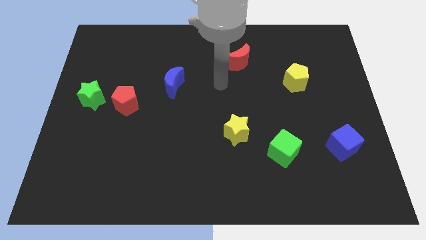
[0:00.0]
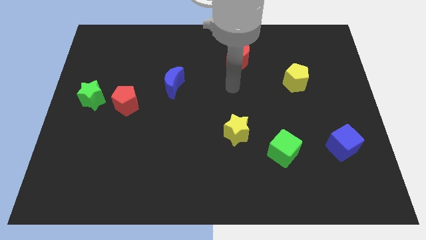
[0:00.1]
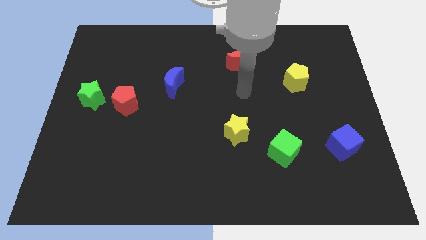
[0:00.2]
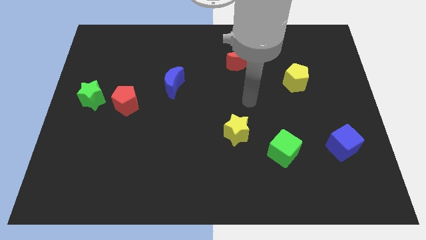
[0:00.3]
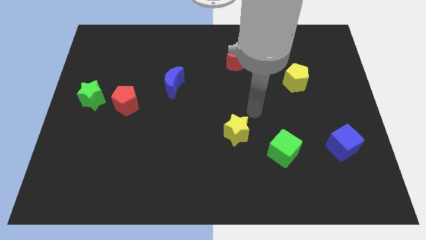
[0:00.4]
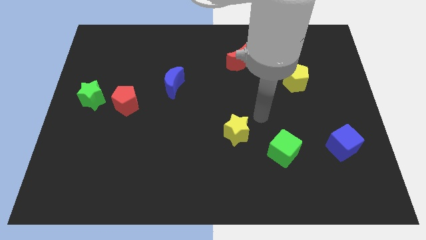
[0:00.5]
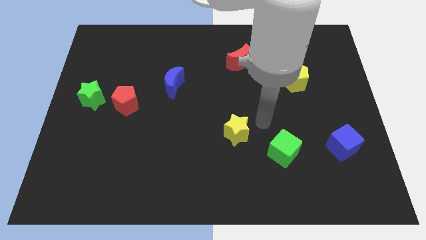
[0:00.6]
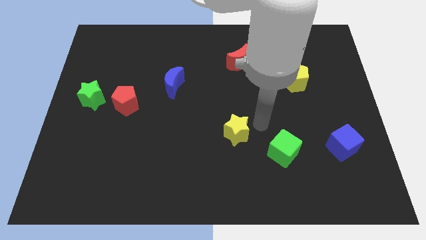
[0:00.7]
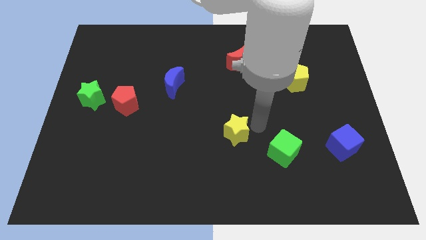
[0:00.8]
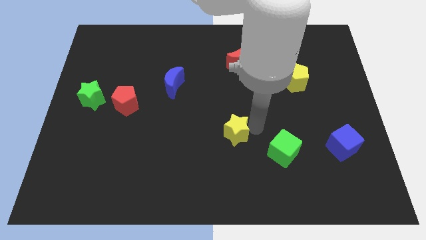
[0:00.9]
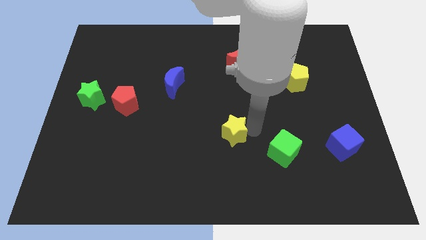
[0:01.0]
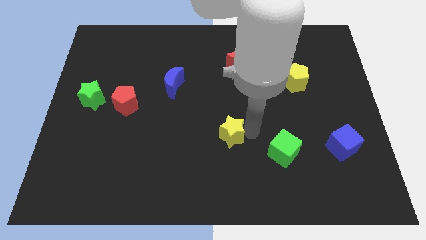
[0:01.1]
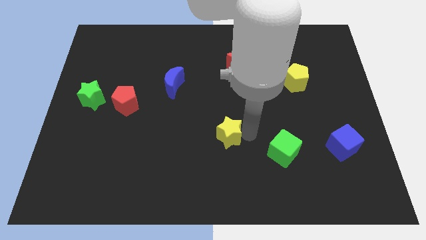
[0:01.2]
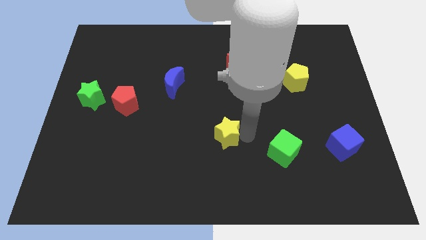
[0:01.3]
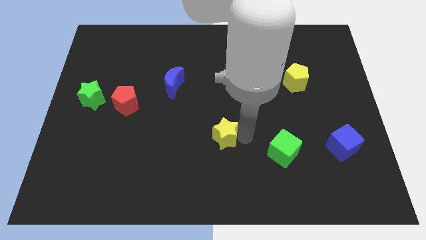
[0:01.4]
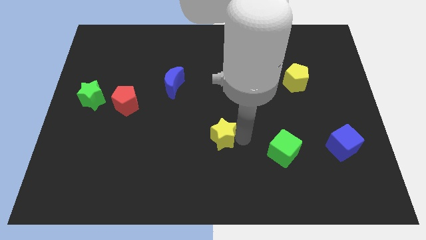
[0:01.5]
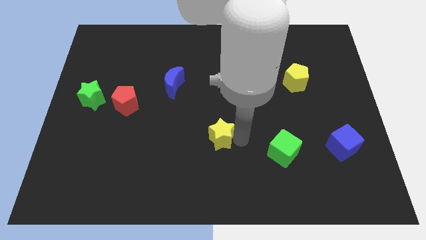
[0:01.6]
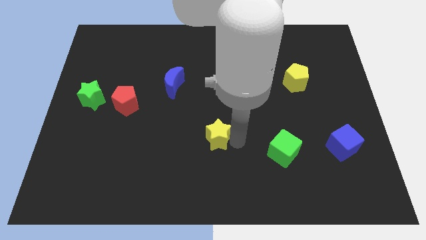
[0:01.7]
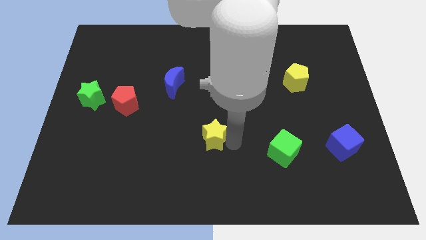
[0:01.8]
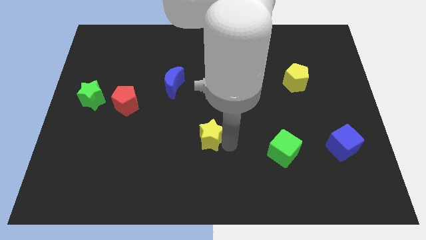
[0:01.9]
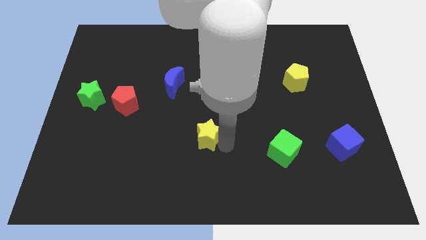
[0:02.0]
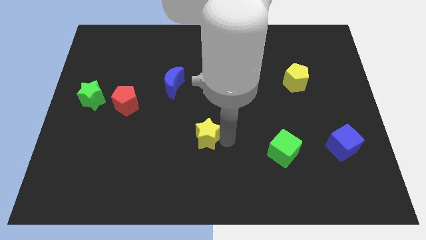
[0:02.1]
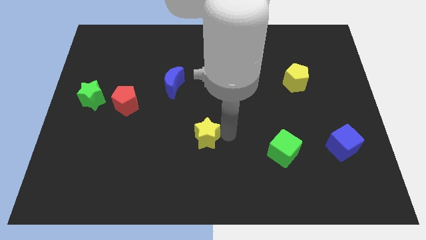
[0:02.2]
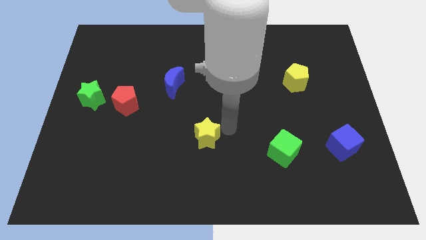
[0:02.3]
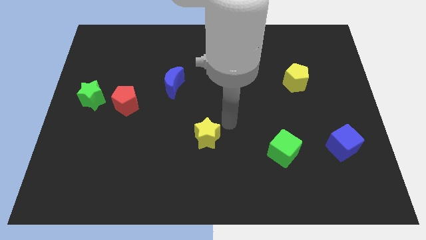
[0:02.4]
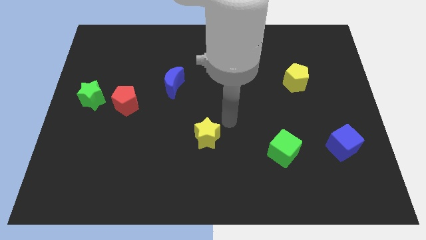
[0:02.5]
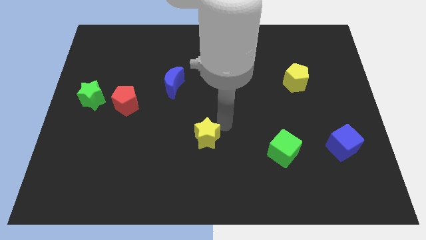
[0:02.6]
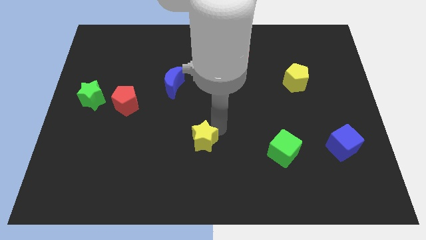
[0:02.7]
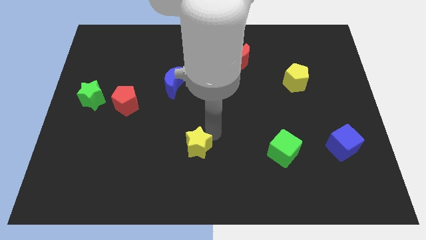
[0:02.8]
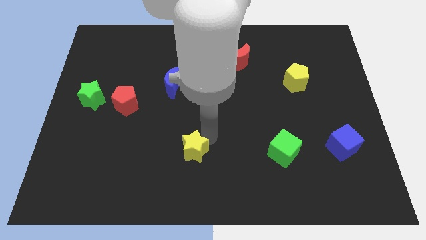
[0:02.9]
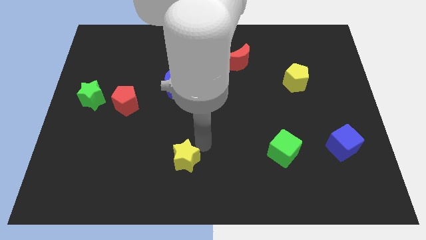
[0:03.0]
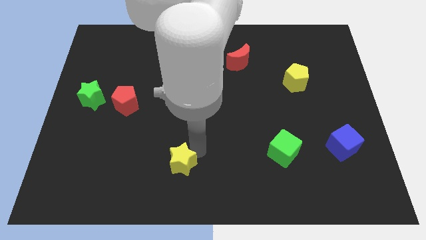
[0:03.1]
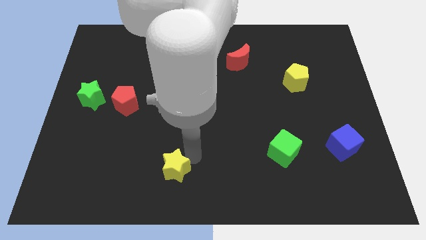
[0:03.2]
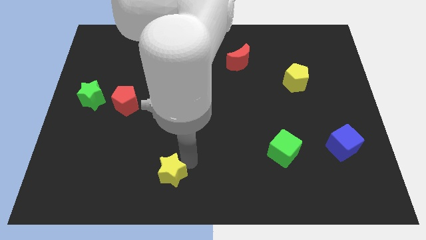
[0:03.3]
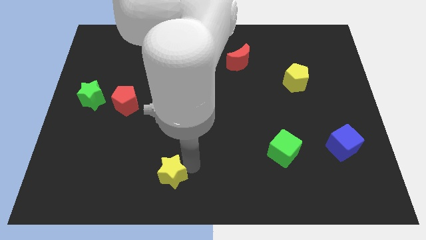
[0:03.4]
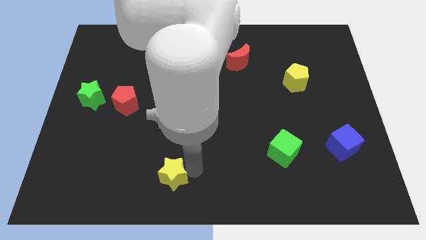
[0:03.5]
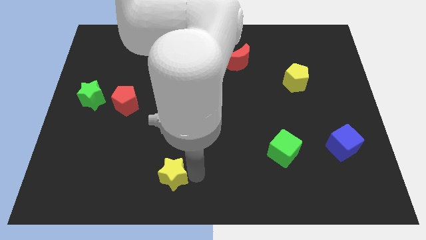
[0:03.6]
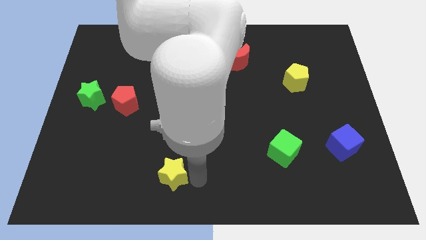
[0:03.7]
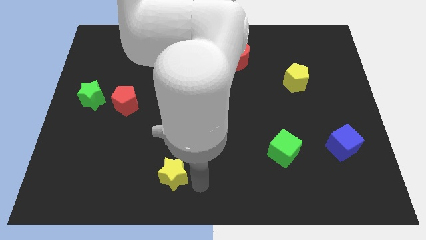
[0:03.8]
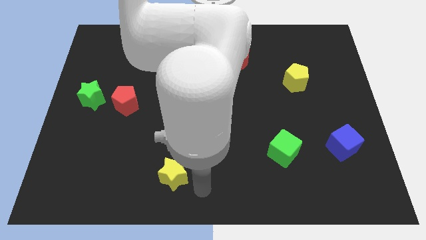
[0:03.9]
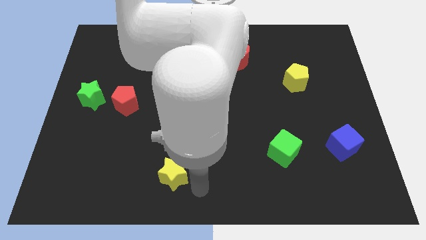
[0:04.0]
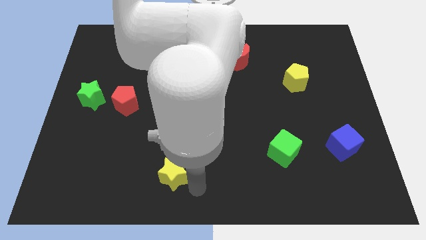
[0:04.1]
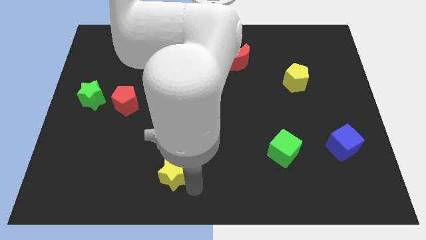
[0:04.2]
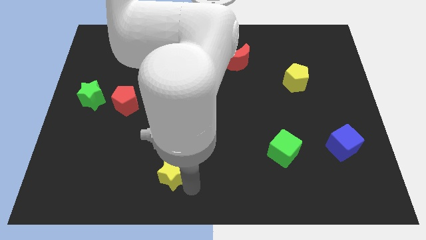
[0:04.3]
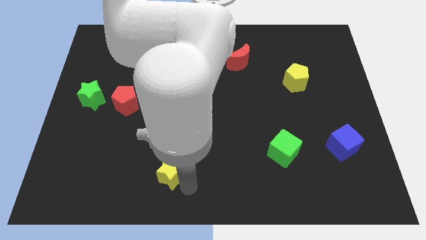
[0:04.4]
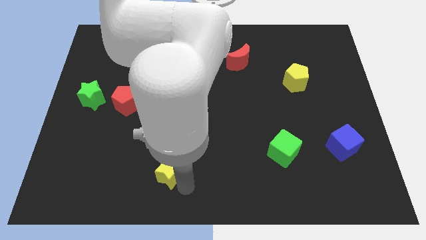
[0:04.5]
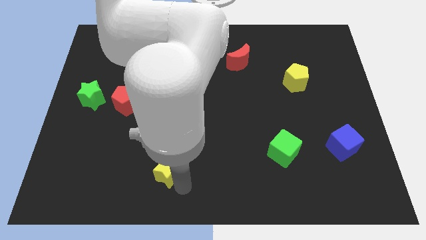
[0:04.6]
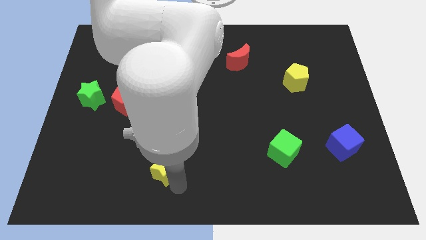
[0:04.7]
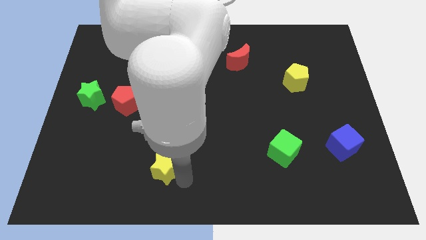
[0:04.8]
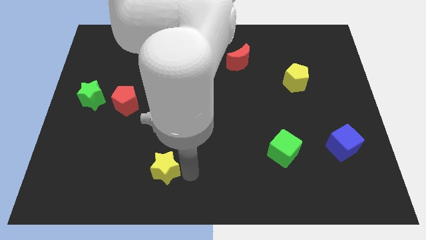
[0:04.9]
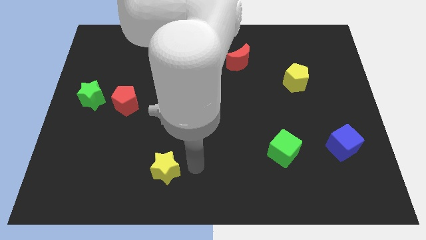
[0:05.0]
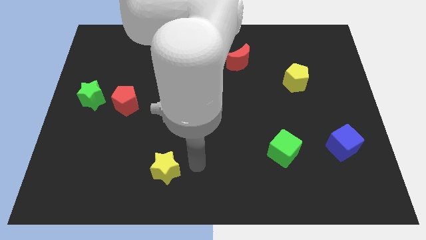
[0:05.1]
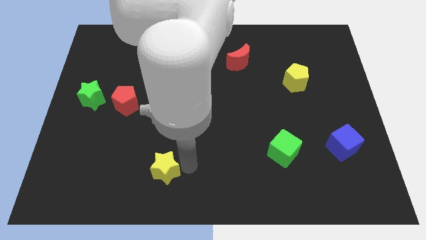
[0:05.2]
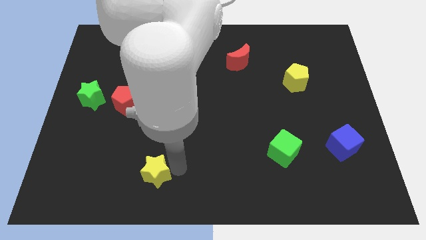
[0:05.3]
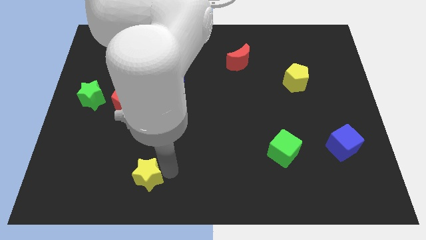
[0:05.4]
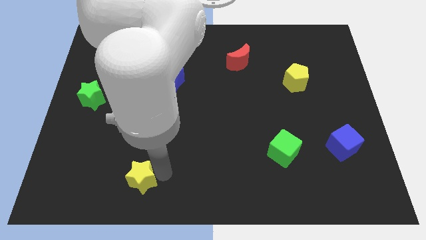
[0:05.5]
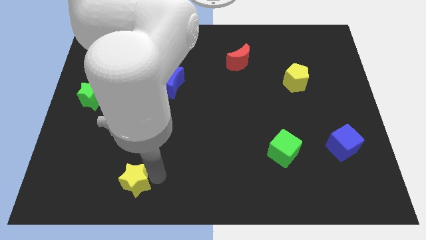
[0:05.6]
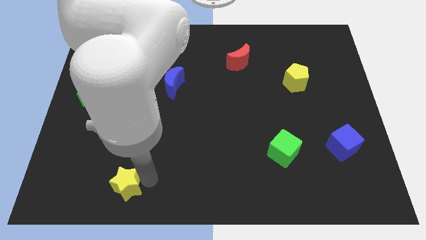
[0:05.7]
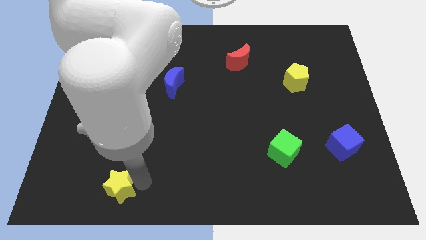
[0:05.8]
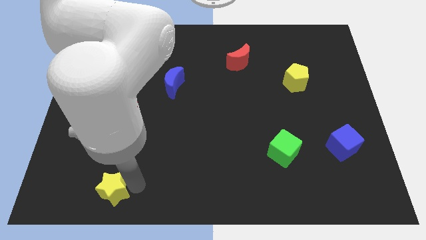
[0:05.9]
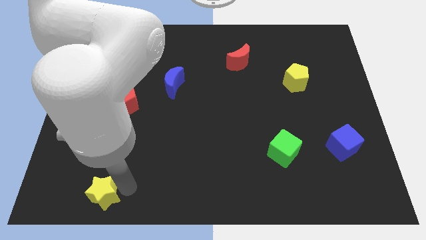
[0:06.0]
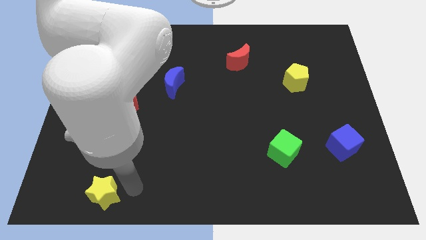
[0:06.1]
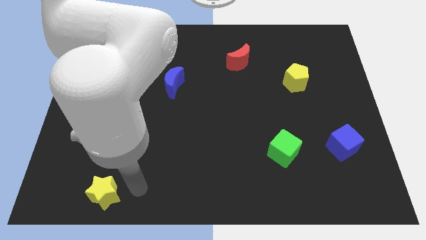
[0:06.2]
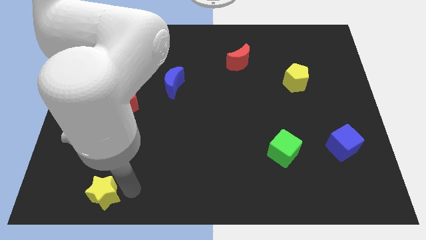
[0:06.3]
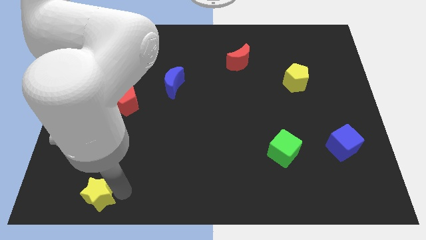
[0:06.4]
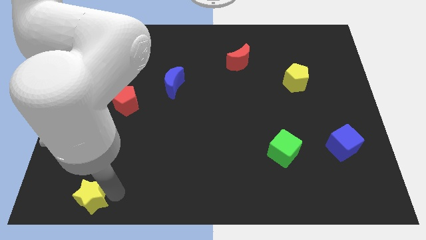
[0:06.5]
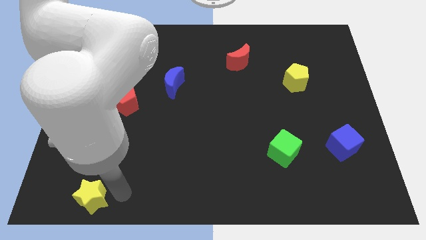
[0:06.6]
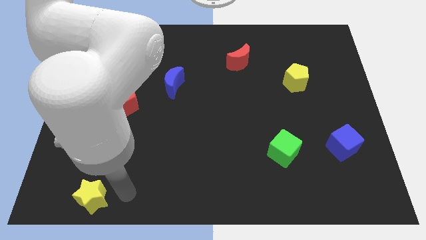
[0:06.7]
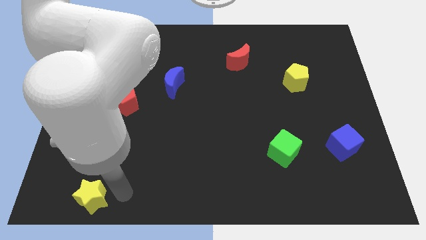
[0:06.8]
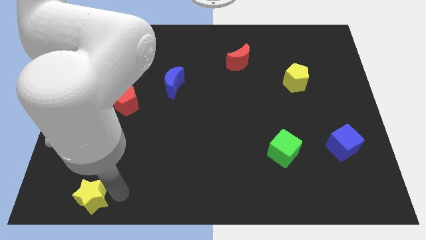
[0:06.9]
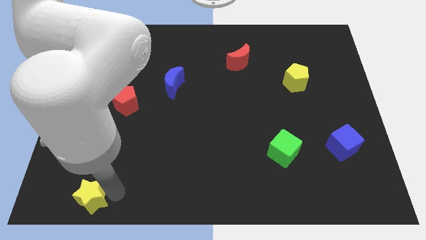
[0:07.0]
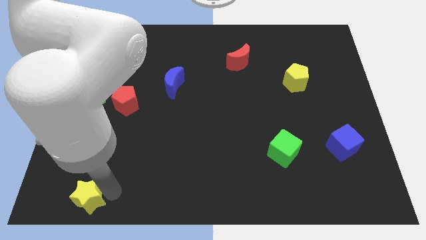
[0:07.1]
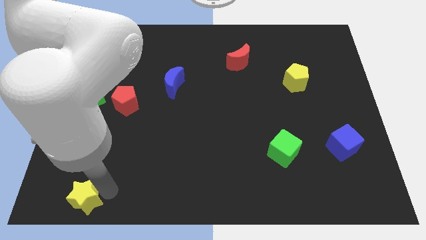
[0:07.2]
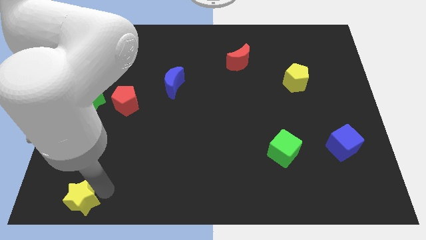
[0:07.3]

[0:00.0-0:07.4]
put the yellow star to the bottom left corner
